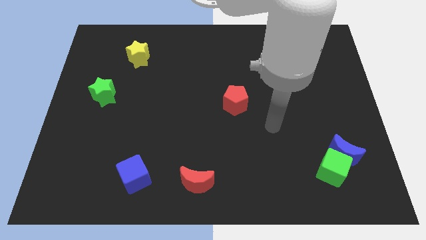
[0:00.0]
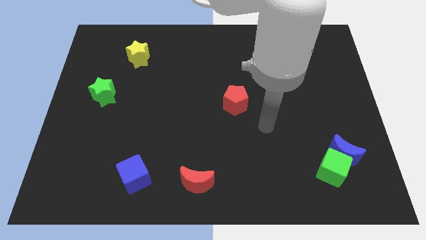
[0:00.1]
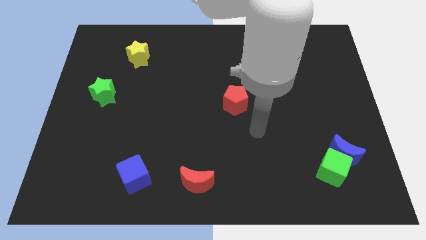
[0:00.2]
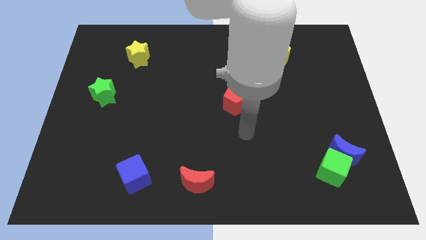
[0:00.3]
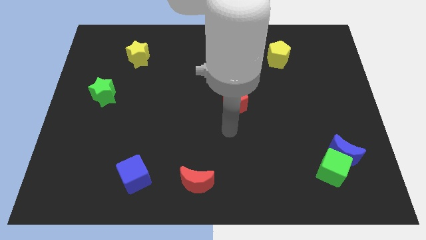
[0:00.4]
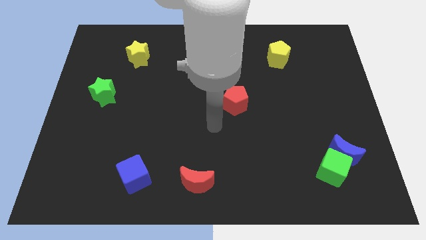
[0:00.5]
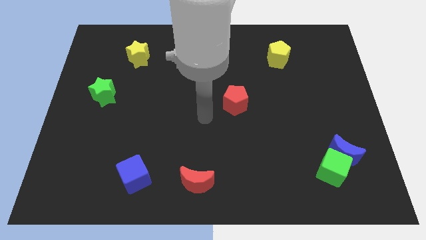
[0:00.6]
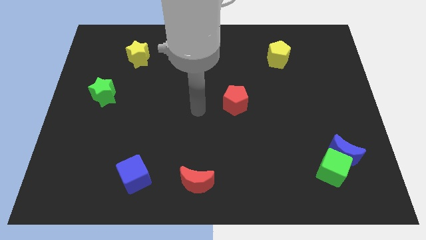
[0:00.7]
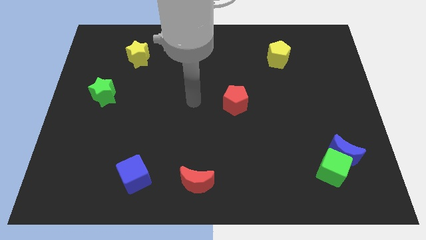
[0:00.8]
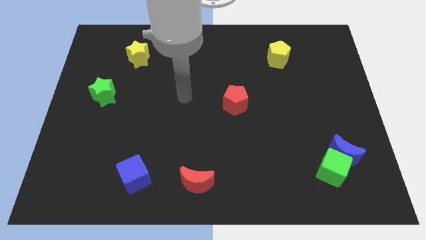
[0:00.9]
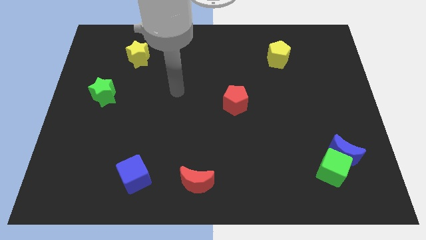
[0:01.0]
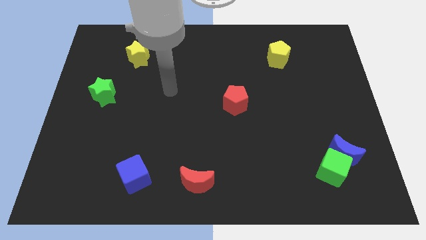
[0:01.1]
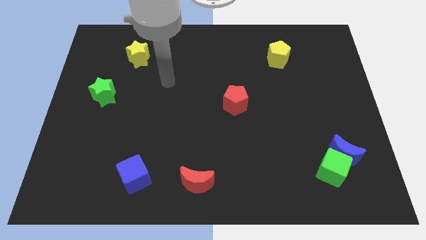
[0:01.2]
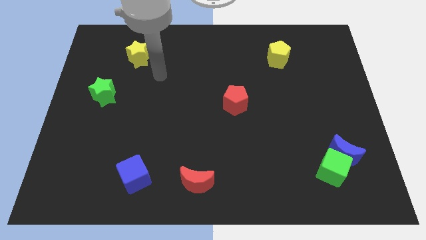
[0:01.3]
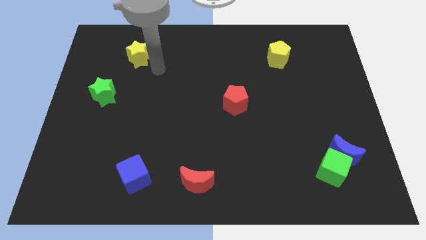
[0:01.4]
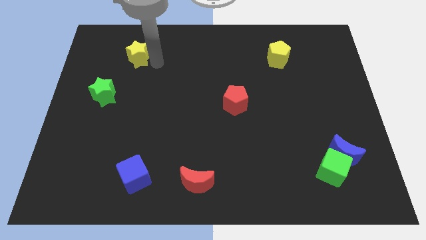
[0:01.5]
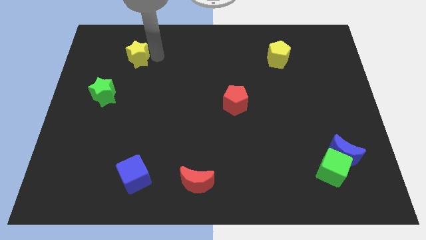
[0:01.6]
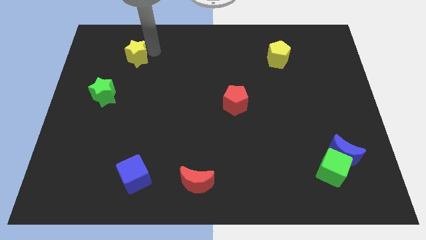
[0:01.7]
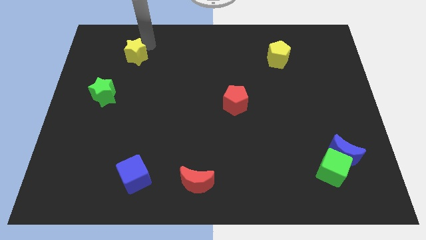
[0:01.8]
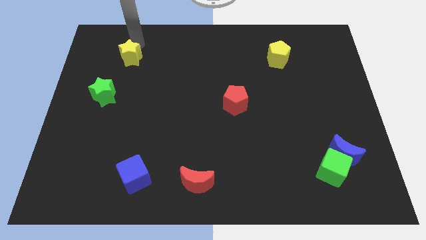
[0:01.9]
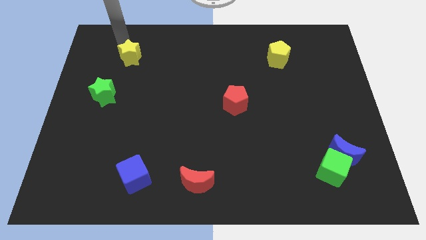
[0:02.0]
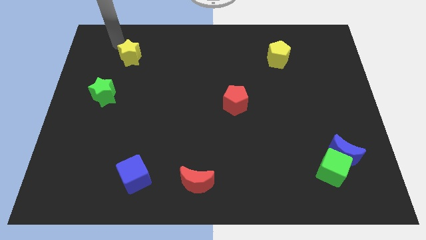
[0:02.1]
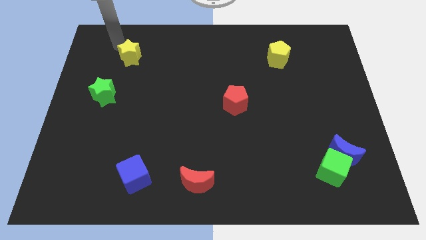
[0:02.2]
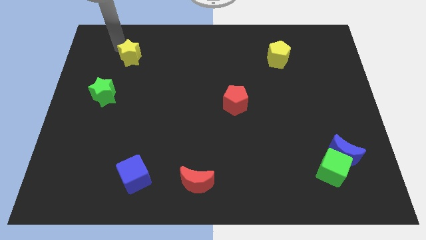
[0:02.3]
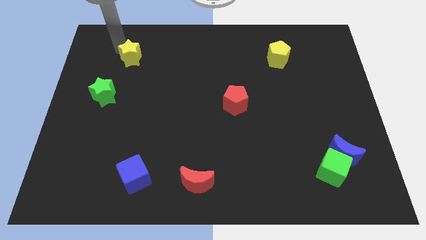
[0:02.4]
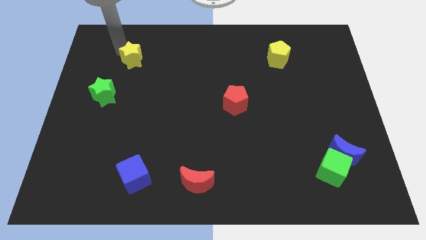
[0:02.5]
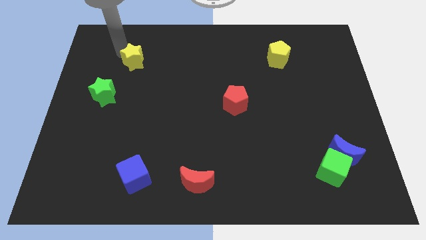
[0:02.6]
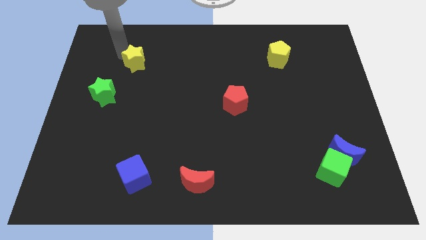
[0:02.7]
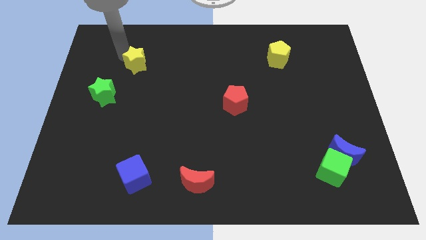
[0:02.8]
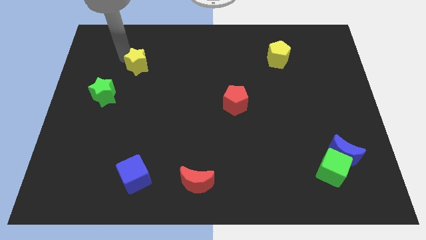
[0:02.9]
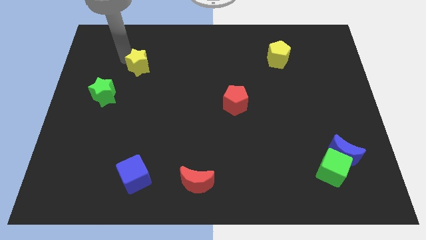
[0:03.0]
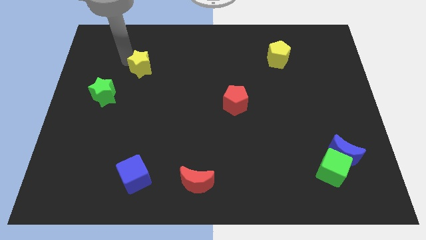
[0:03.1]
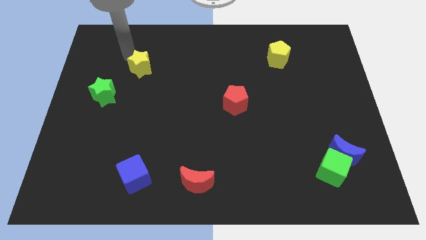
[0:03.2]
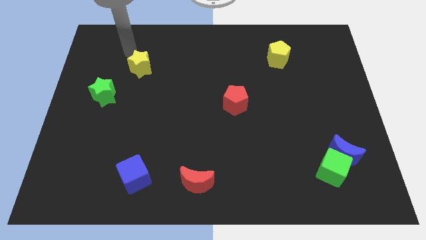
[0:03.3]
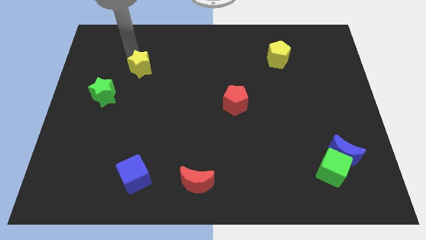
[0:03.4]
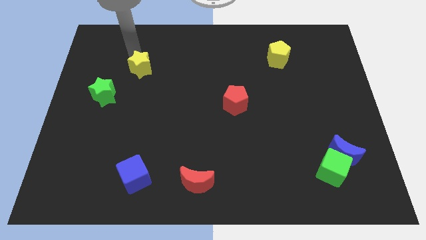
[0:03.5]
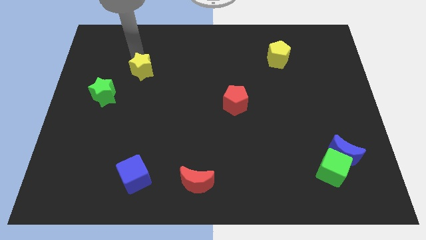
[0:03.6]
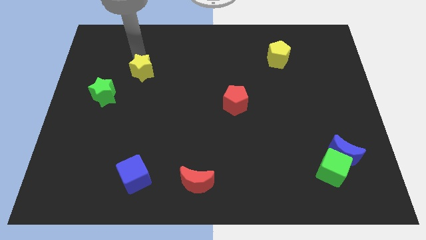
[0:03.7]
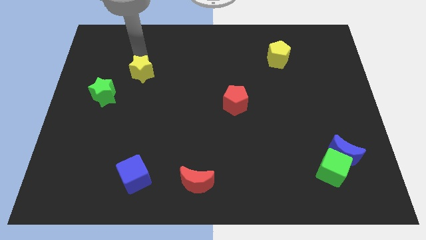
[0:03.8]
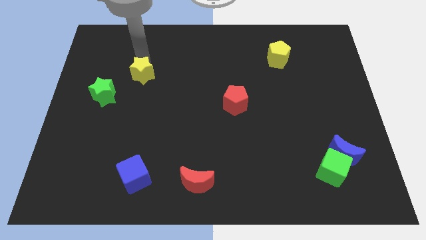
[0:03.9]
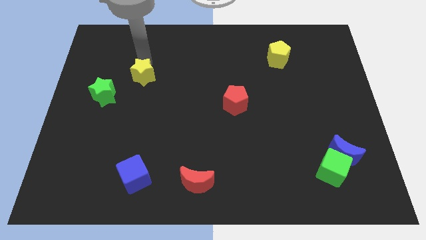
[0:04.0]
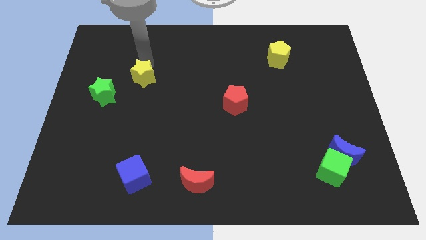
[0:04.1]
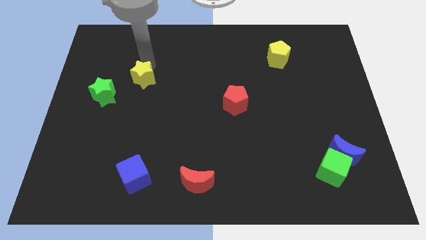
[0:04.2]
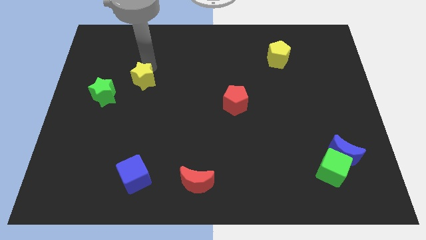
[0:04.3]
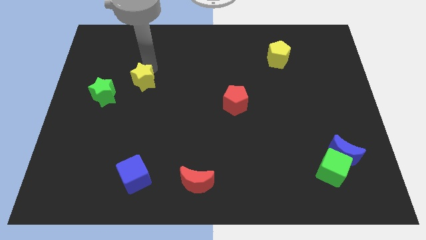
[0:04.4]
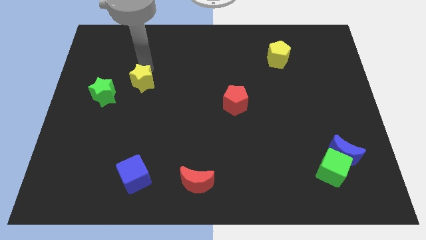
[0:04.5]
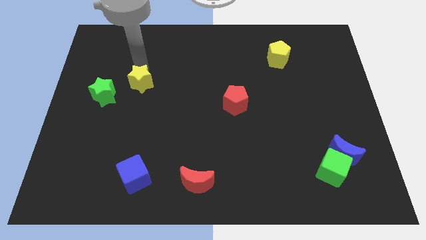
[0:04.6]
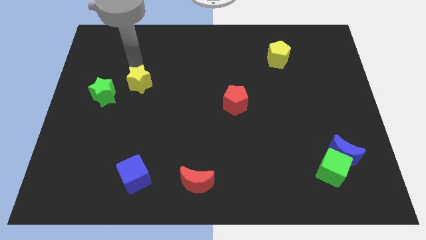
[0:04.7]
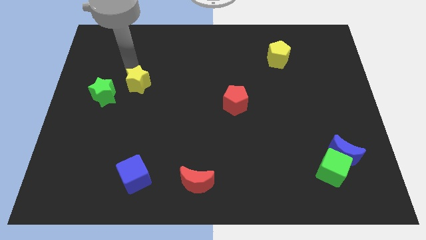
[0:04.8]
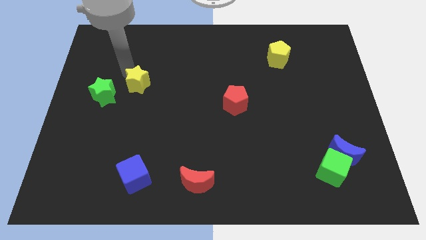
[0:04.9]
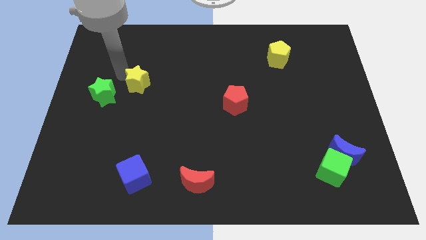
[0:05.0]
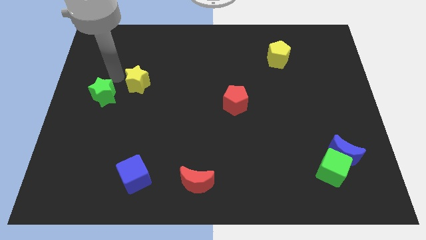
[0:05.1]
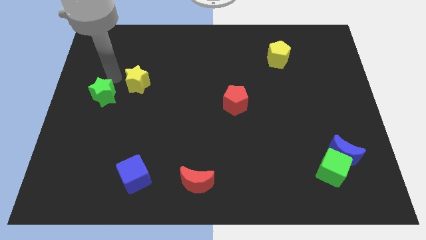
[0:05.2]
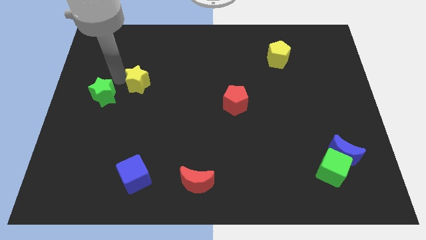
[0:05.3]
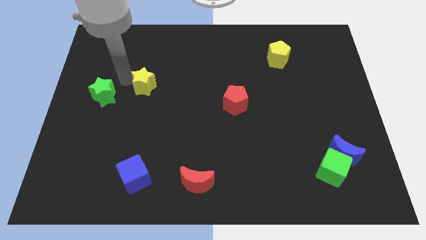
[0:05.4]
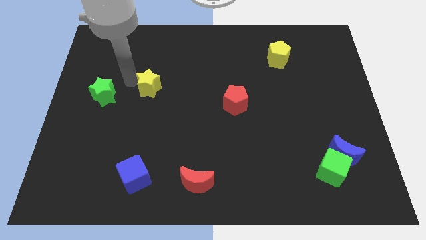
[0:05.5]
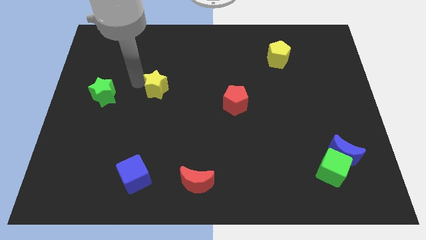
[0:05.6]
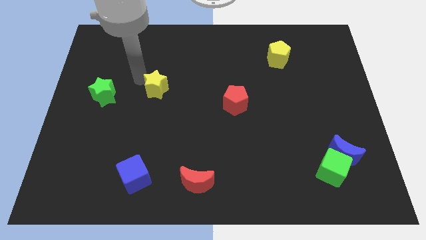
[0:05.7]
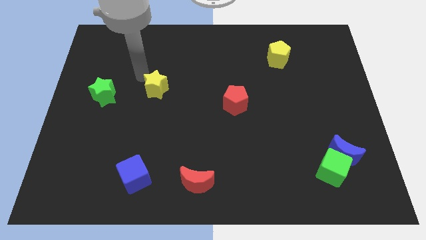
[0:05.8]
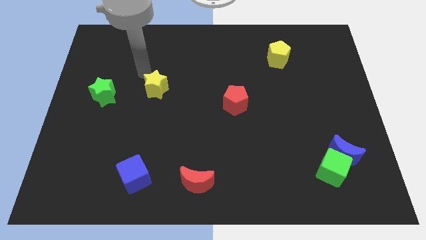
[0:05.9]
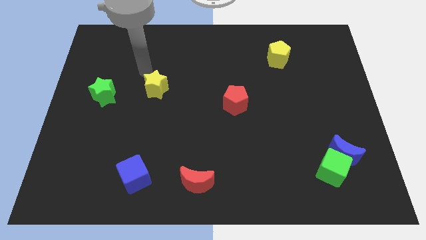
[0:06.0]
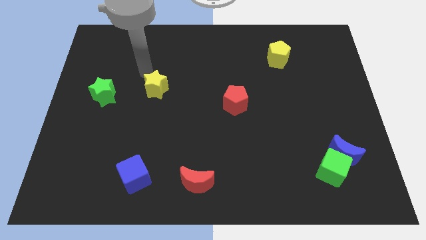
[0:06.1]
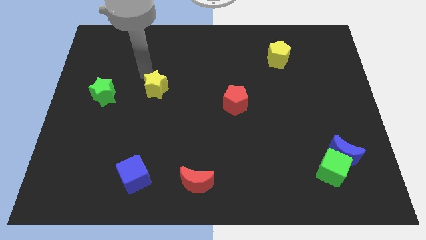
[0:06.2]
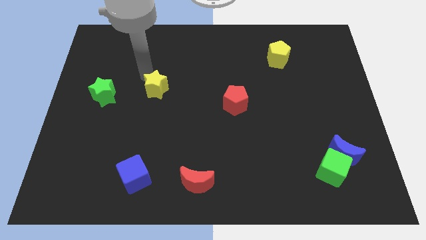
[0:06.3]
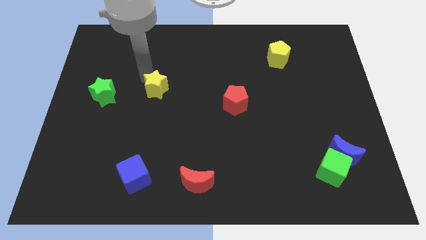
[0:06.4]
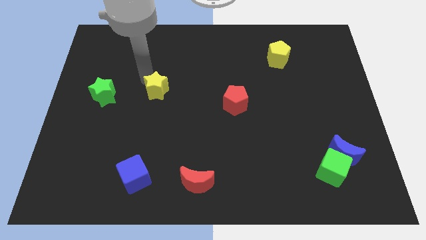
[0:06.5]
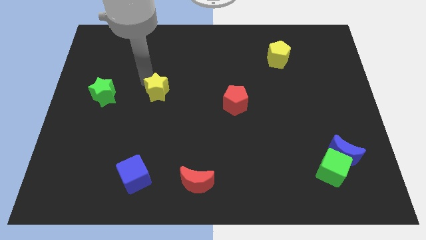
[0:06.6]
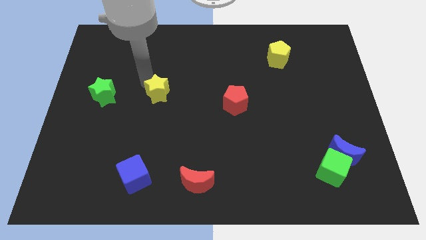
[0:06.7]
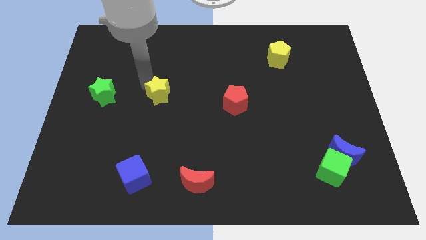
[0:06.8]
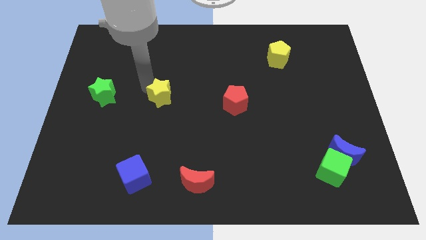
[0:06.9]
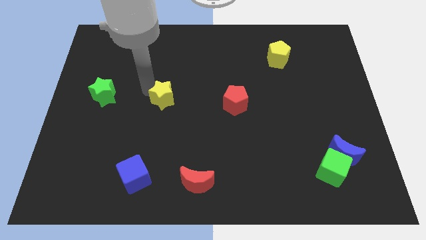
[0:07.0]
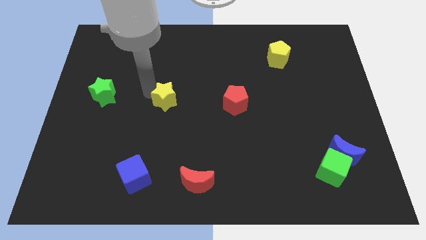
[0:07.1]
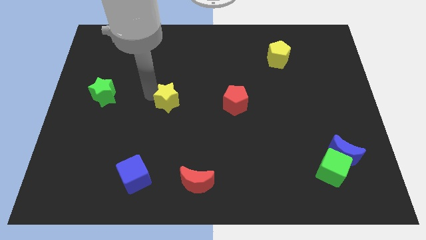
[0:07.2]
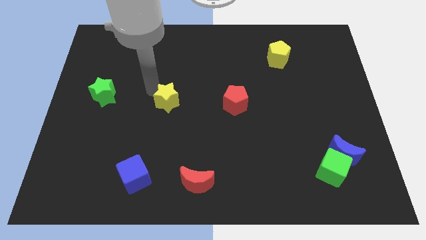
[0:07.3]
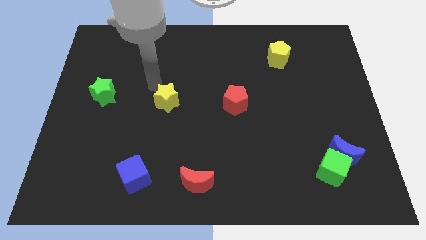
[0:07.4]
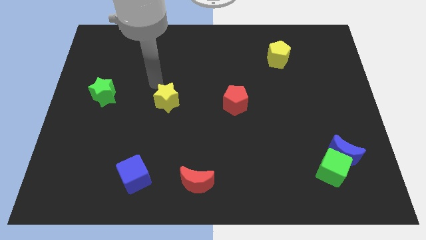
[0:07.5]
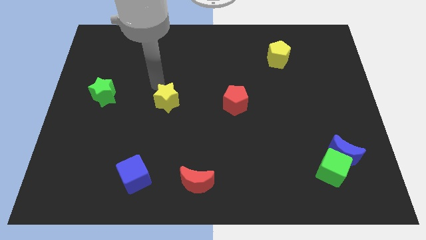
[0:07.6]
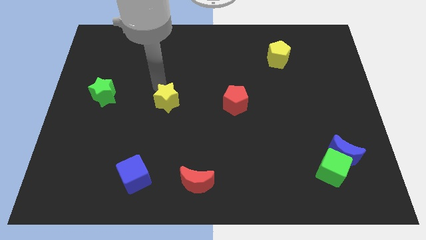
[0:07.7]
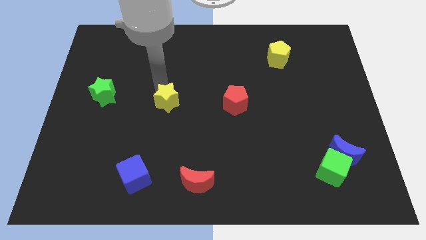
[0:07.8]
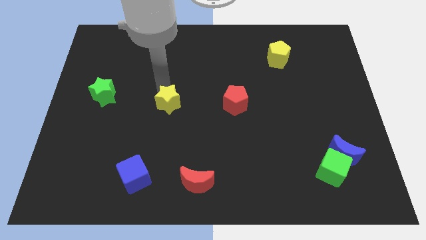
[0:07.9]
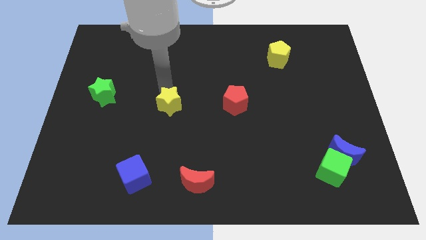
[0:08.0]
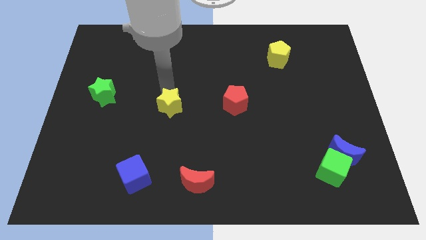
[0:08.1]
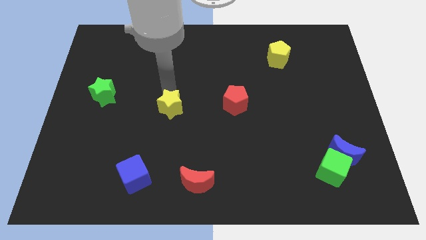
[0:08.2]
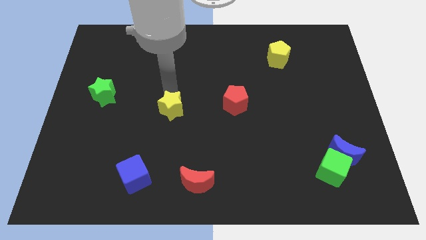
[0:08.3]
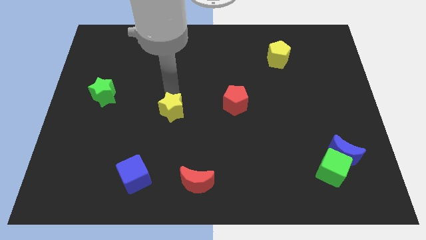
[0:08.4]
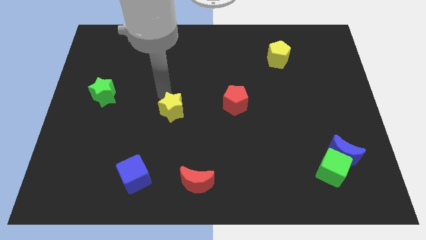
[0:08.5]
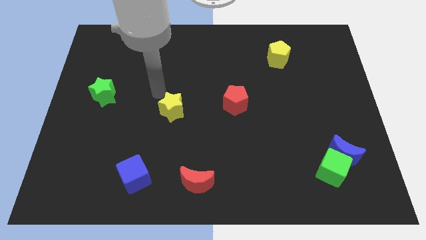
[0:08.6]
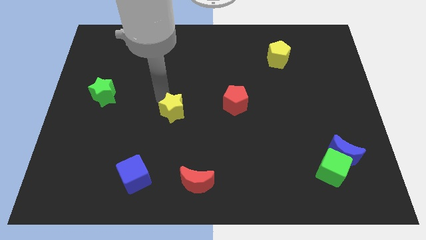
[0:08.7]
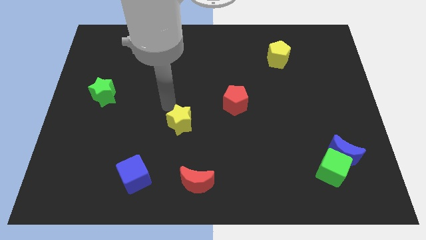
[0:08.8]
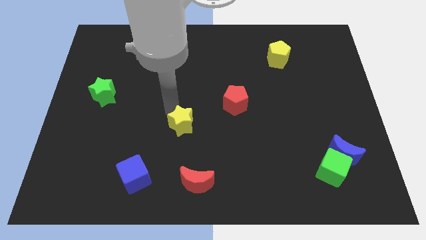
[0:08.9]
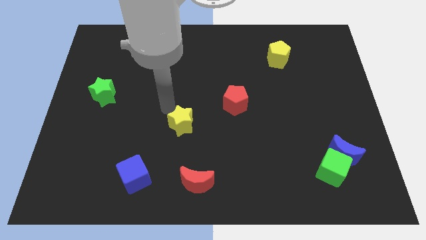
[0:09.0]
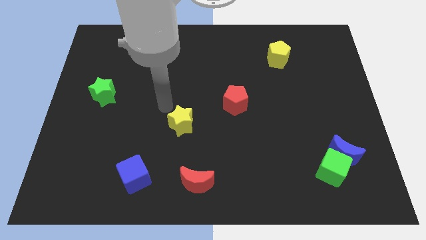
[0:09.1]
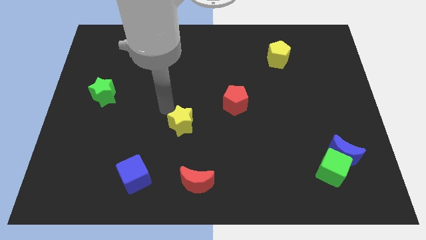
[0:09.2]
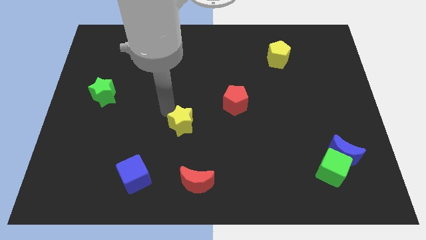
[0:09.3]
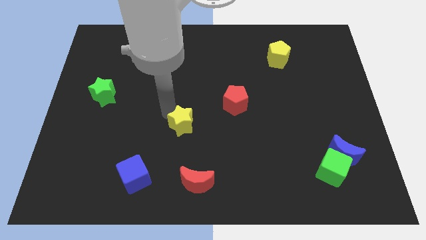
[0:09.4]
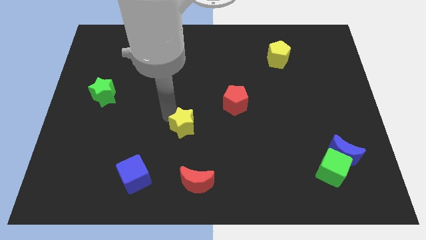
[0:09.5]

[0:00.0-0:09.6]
put the yellow star to the top side of the red moon
